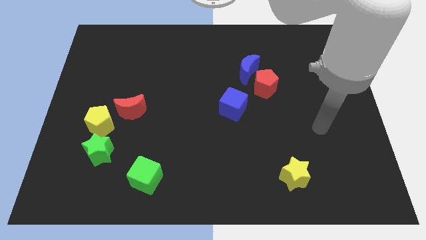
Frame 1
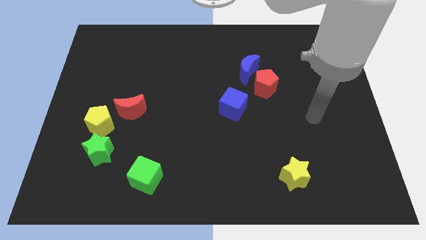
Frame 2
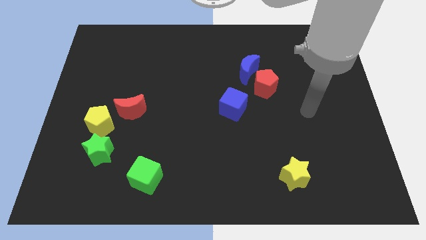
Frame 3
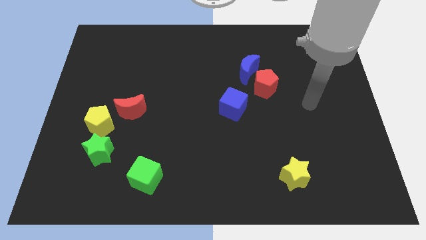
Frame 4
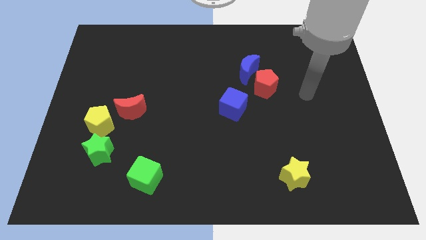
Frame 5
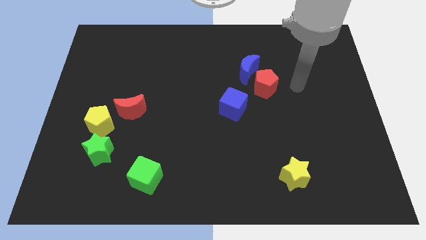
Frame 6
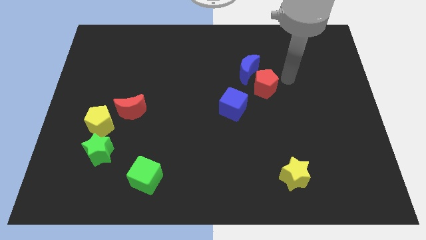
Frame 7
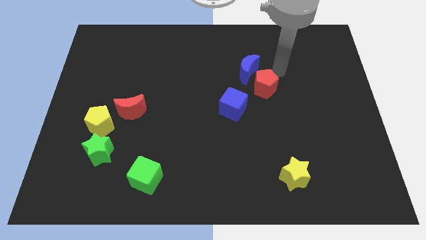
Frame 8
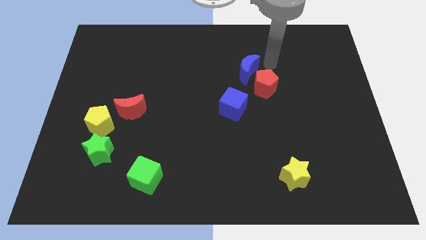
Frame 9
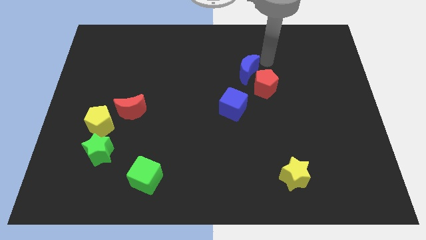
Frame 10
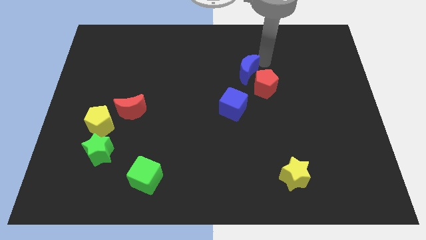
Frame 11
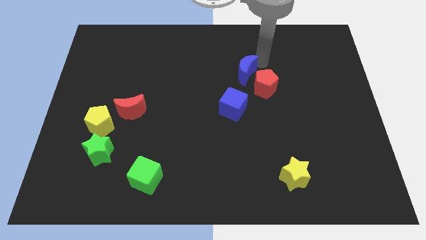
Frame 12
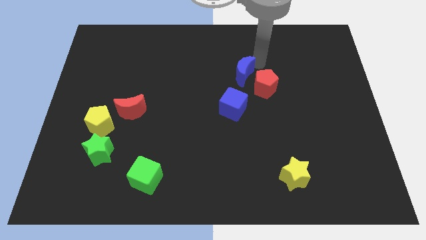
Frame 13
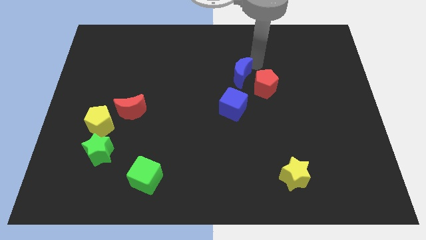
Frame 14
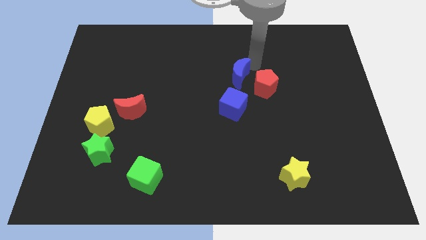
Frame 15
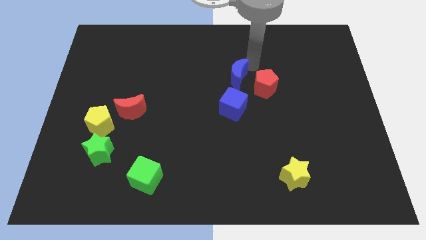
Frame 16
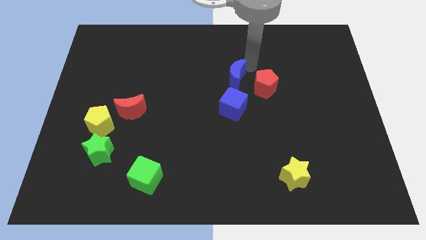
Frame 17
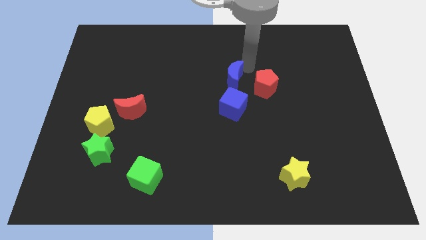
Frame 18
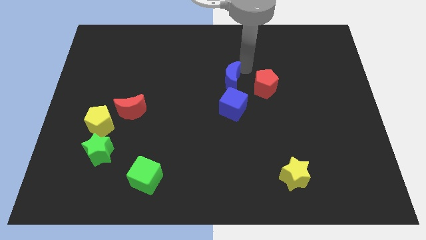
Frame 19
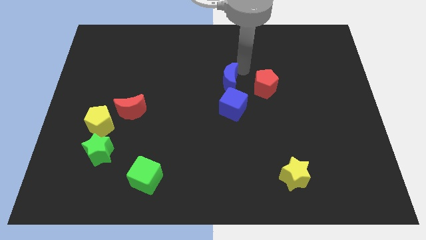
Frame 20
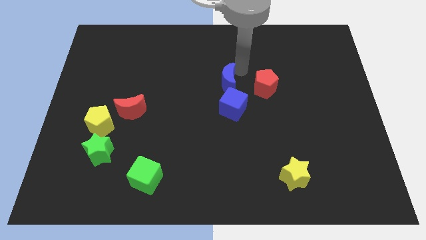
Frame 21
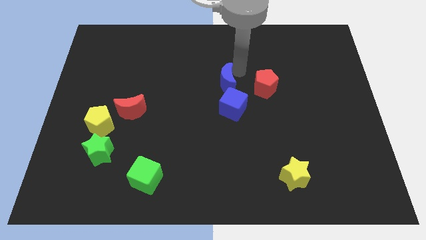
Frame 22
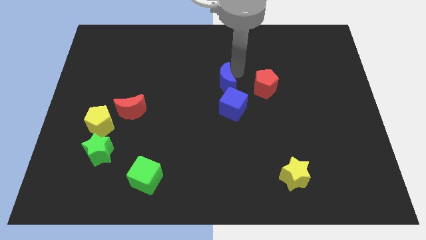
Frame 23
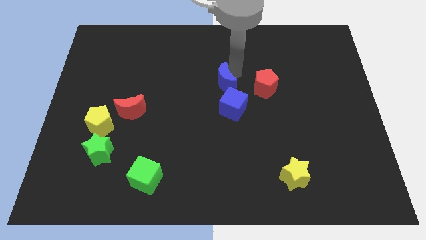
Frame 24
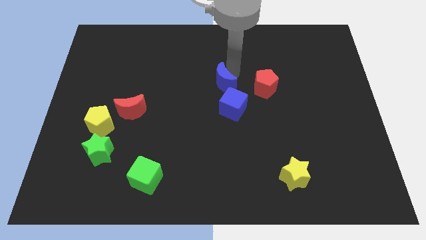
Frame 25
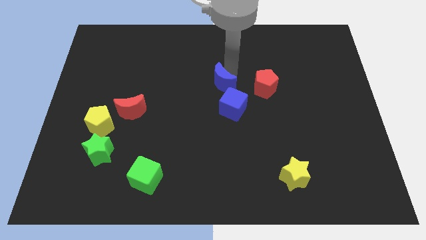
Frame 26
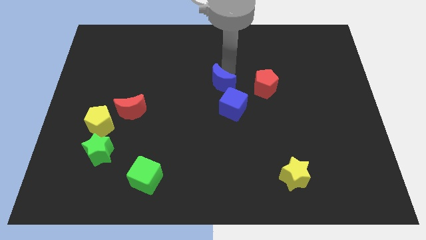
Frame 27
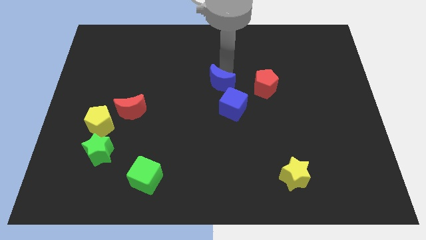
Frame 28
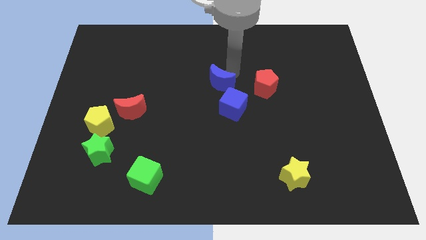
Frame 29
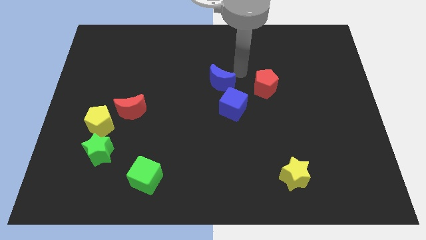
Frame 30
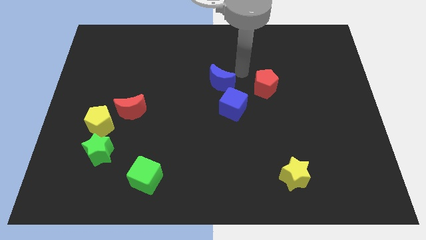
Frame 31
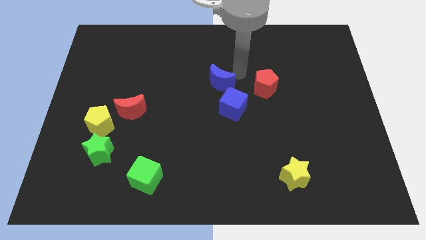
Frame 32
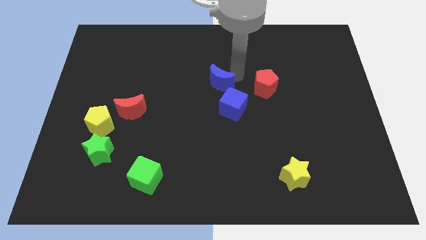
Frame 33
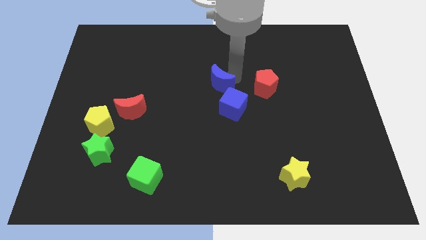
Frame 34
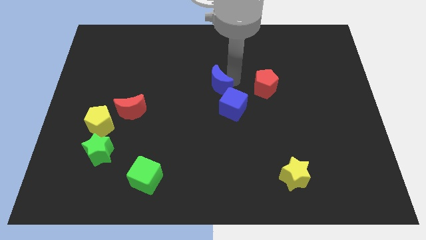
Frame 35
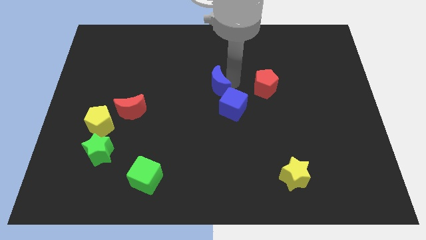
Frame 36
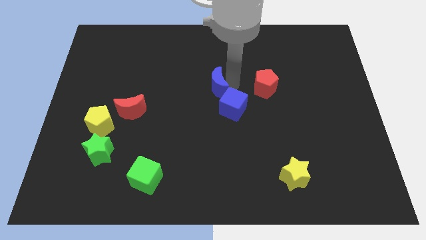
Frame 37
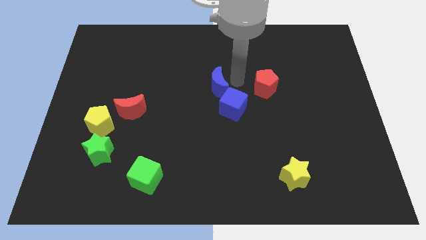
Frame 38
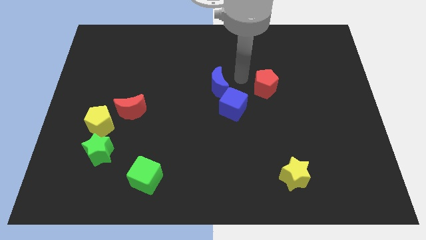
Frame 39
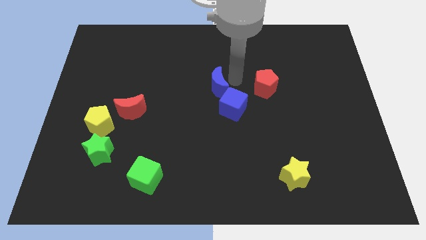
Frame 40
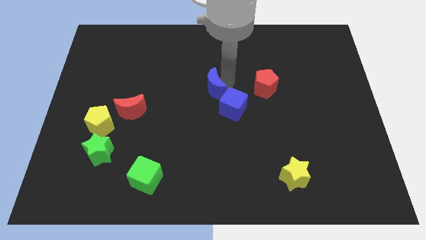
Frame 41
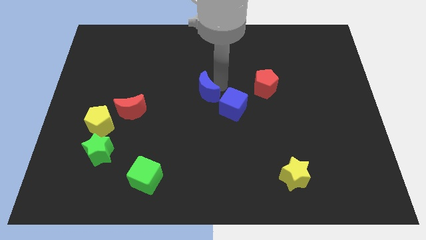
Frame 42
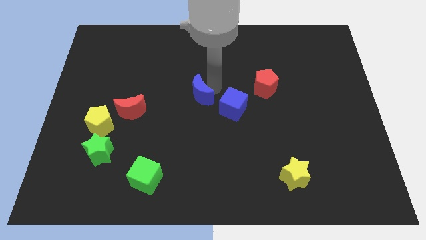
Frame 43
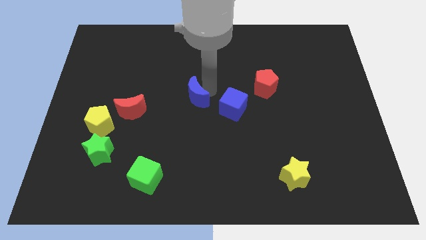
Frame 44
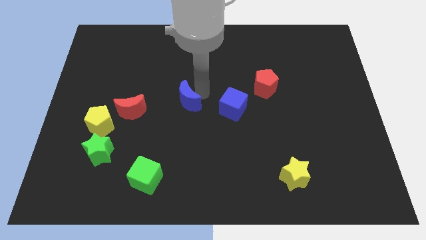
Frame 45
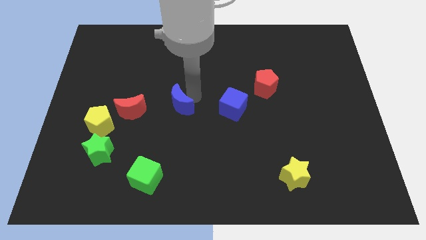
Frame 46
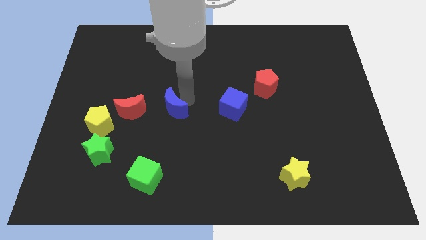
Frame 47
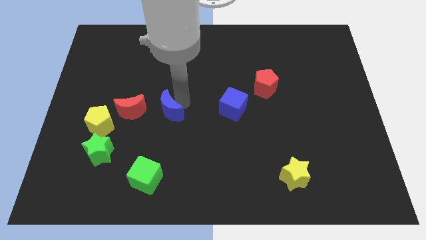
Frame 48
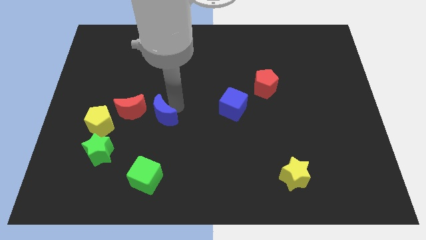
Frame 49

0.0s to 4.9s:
put the blue moon just right of the yellow pentagon

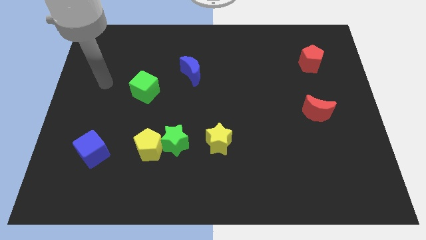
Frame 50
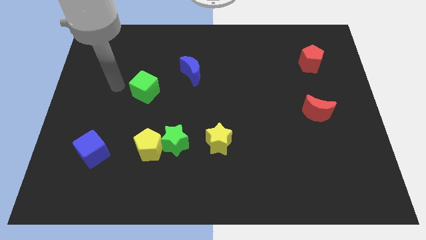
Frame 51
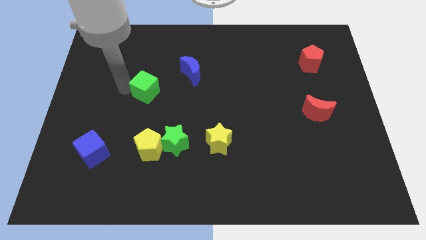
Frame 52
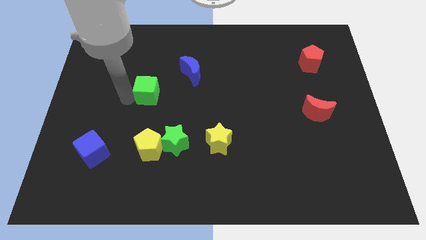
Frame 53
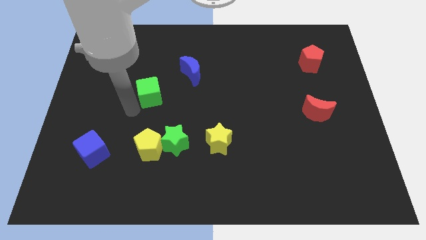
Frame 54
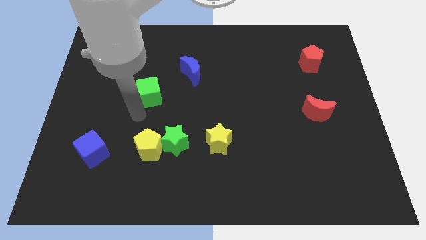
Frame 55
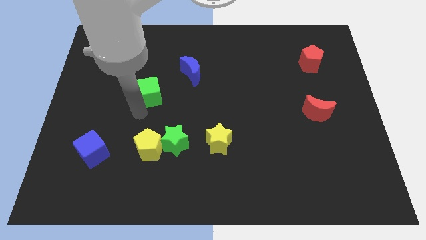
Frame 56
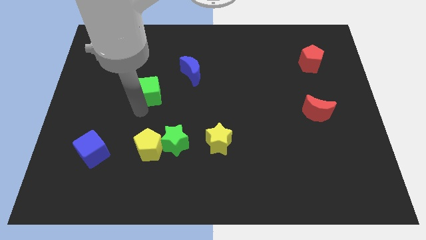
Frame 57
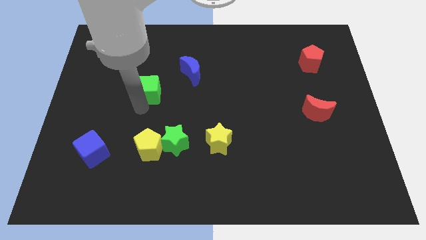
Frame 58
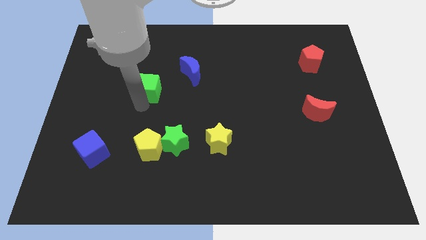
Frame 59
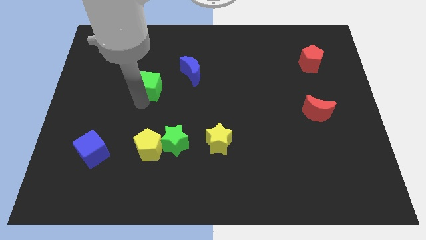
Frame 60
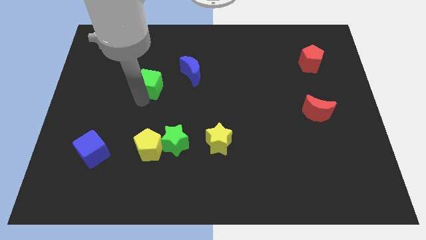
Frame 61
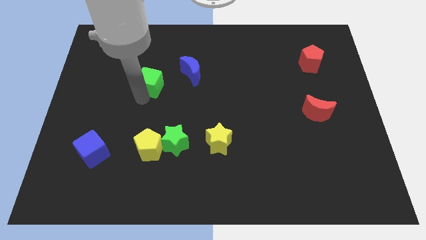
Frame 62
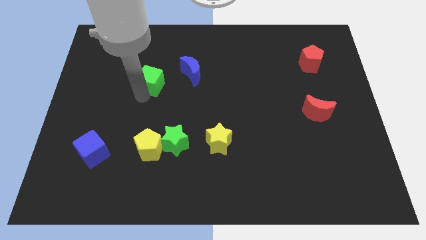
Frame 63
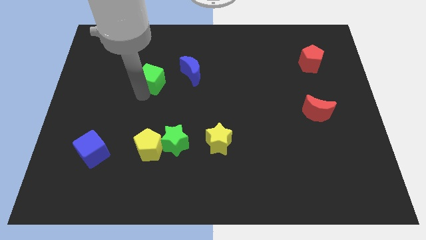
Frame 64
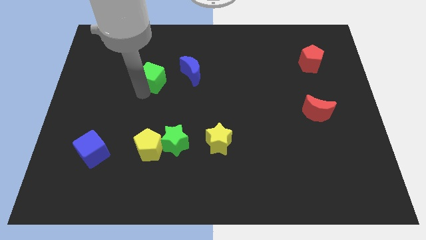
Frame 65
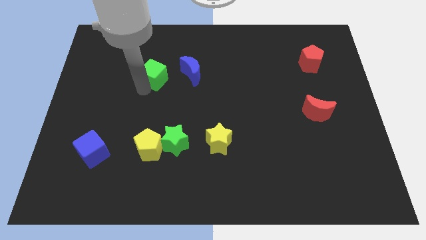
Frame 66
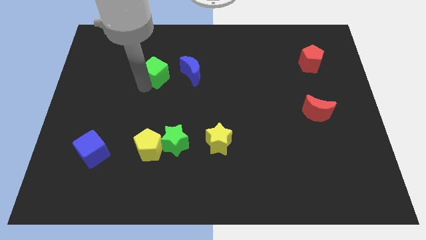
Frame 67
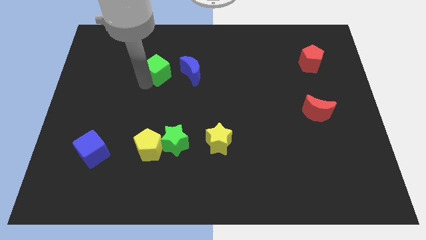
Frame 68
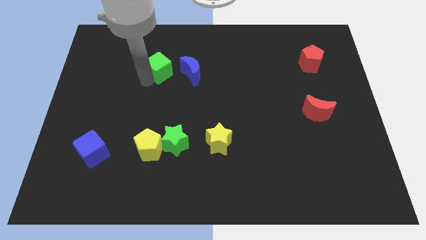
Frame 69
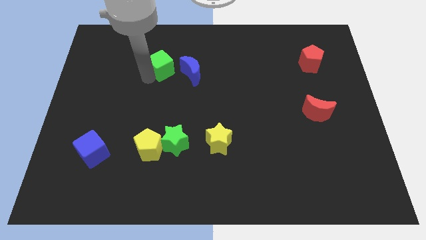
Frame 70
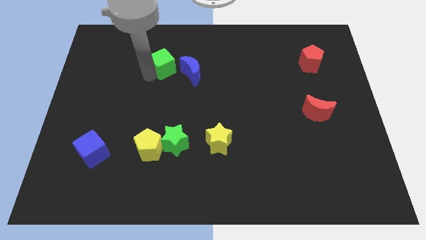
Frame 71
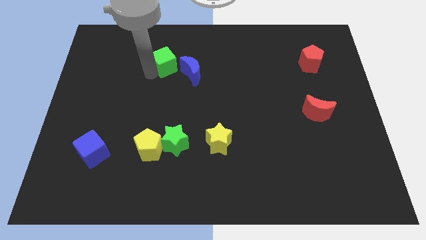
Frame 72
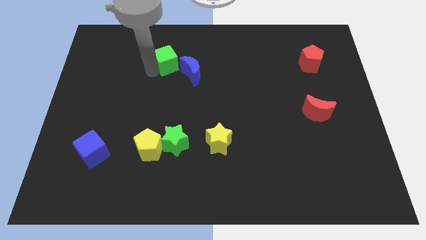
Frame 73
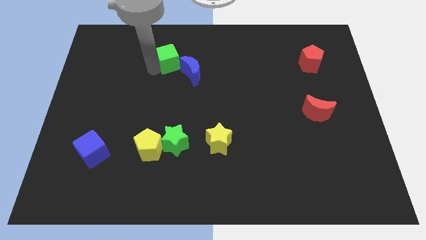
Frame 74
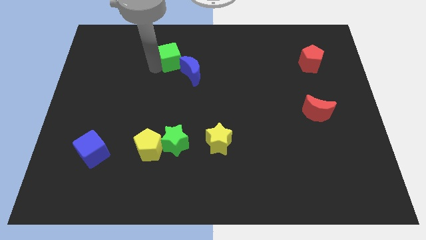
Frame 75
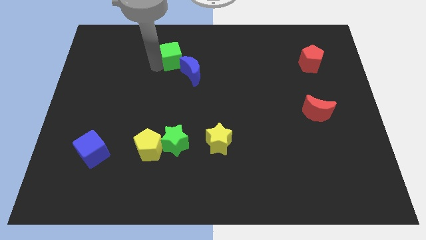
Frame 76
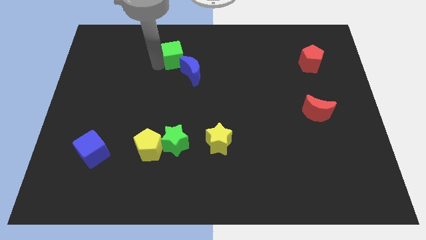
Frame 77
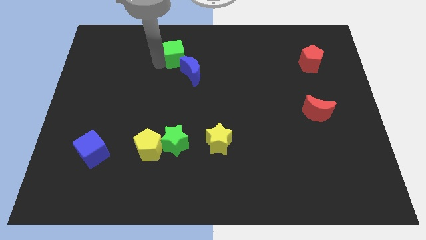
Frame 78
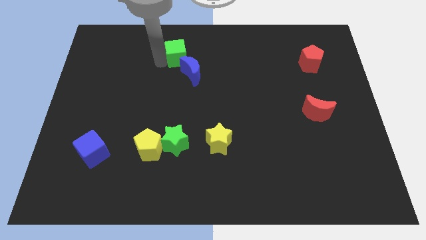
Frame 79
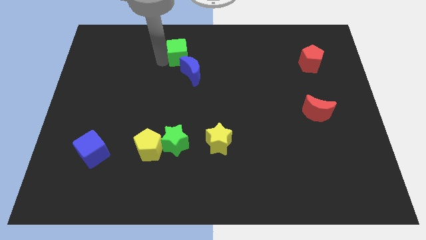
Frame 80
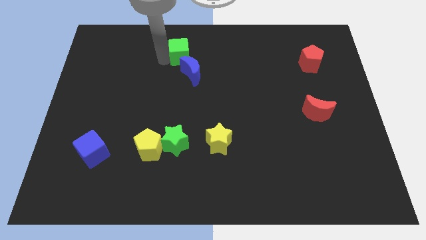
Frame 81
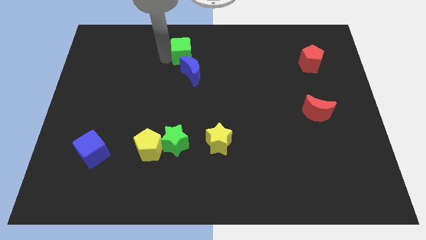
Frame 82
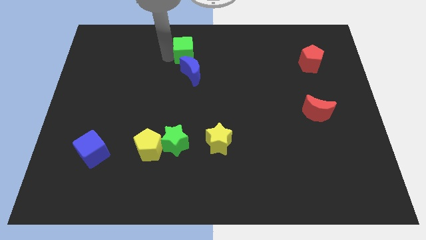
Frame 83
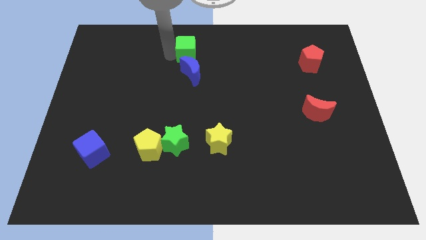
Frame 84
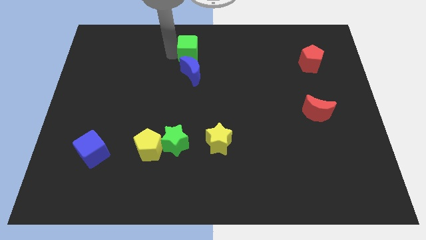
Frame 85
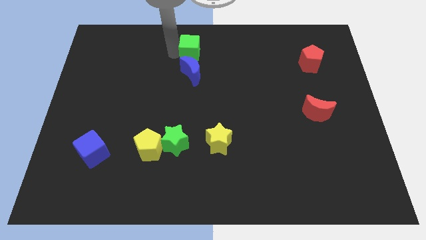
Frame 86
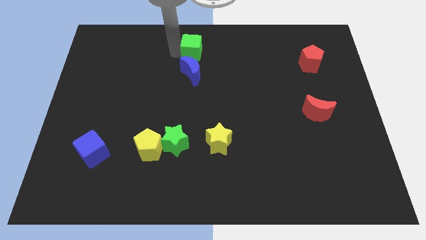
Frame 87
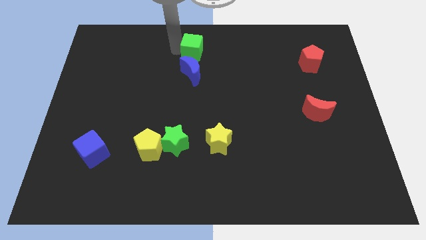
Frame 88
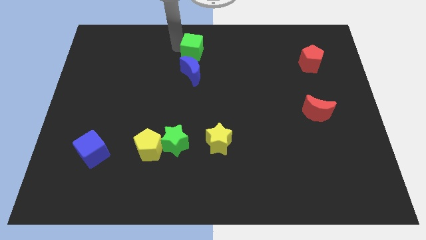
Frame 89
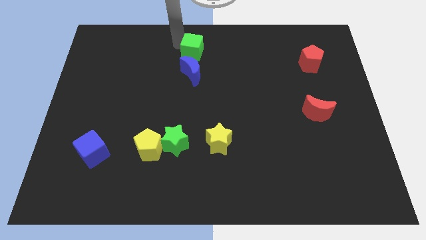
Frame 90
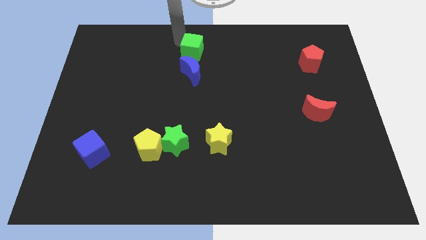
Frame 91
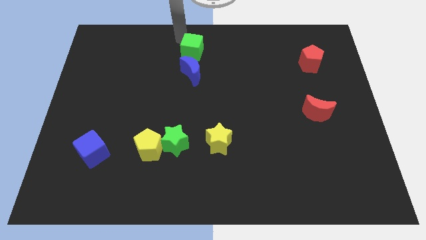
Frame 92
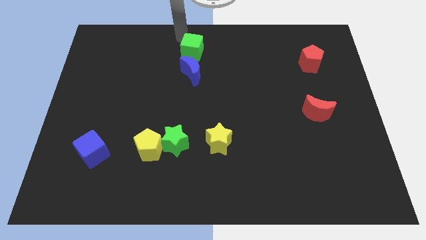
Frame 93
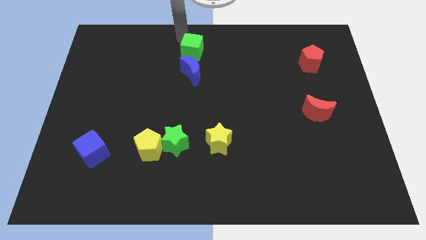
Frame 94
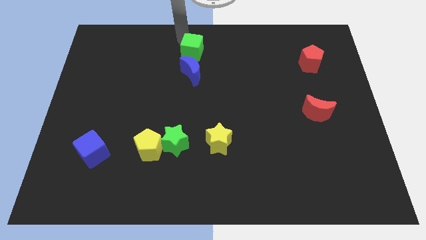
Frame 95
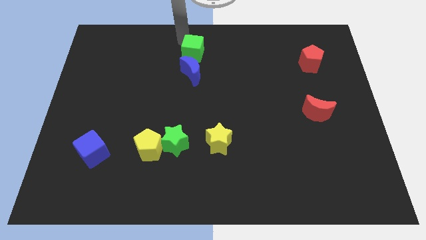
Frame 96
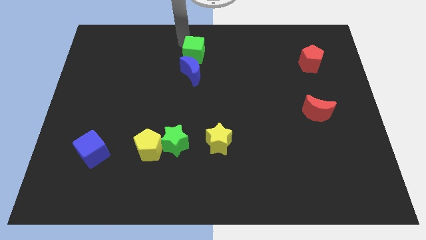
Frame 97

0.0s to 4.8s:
slide the green cube to the top right of the blue moon
